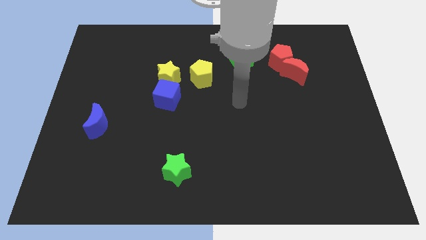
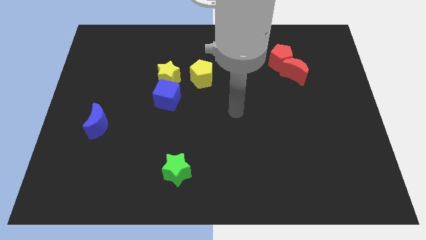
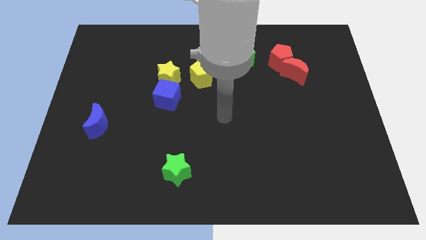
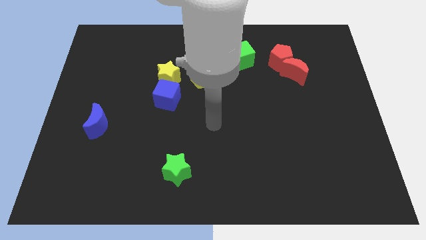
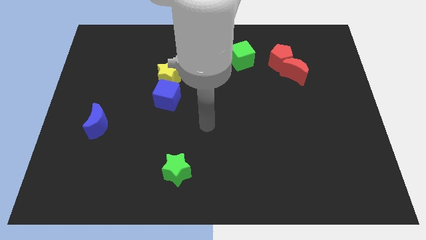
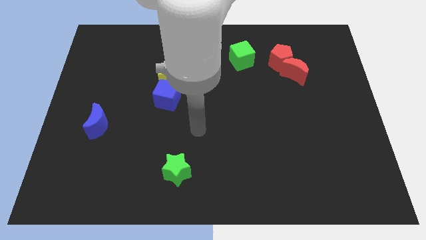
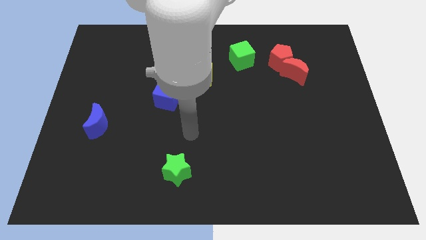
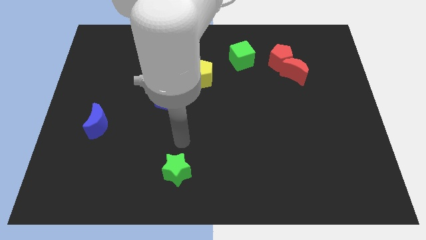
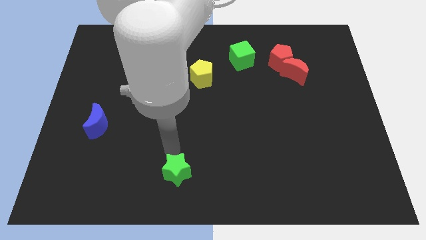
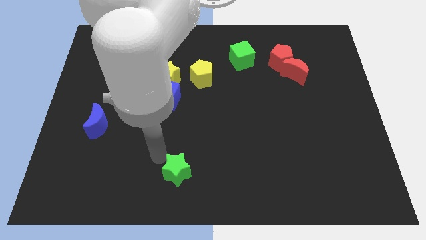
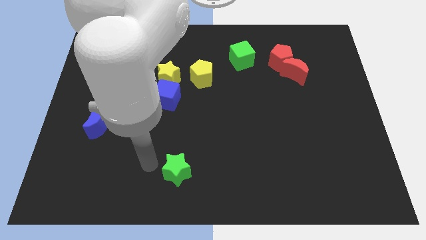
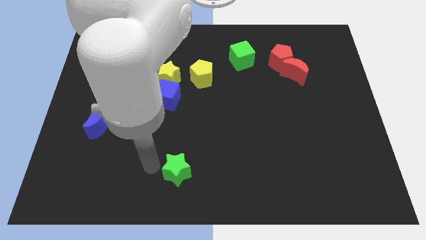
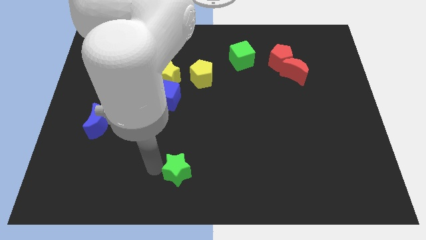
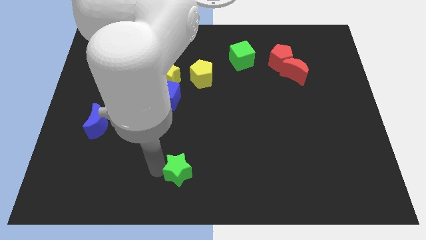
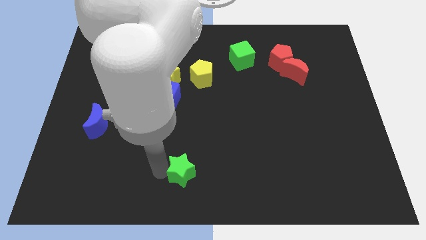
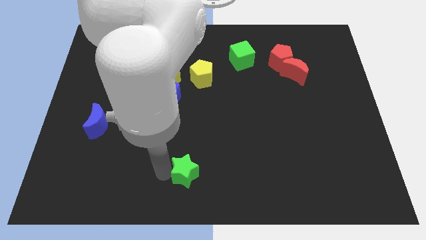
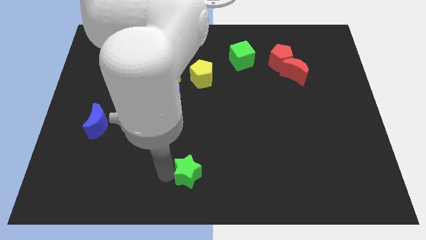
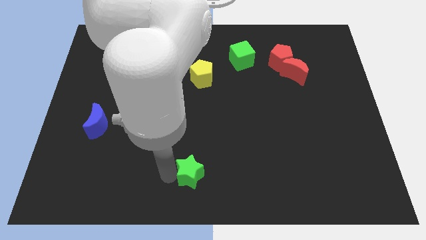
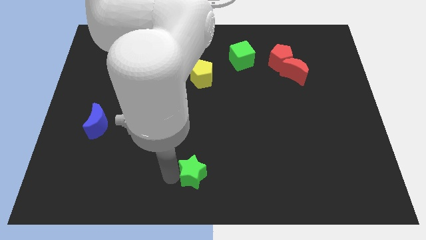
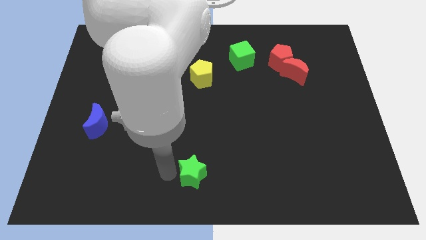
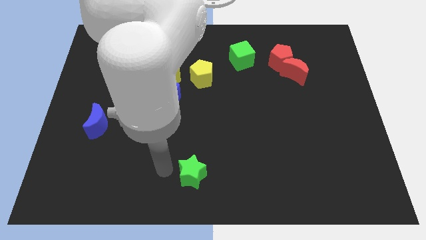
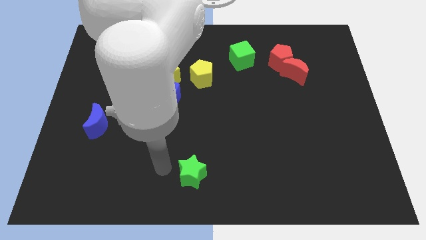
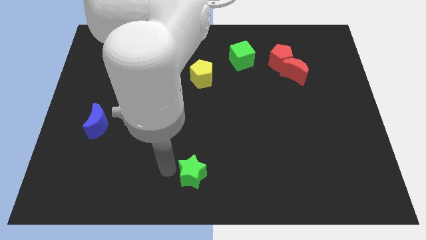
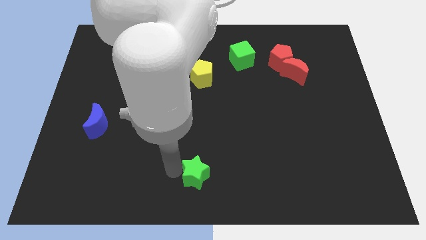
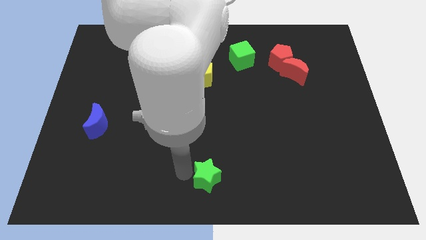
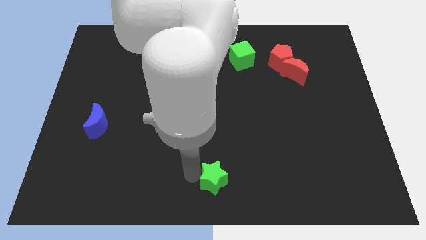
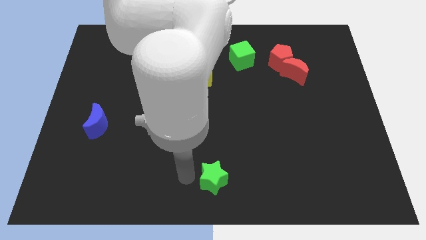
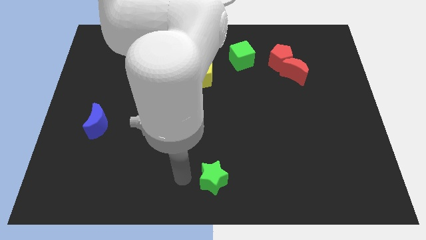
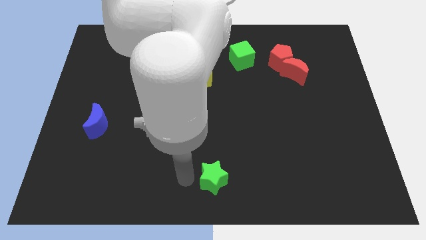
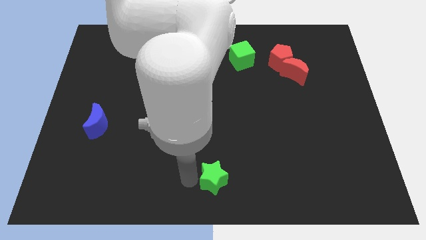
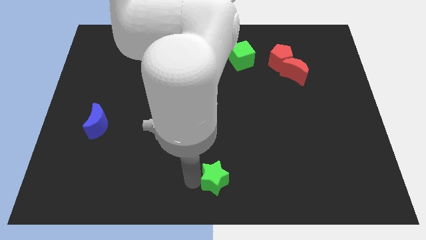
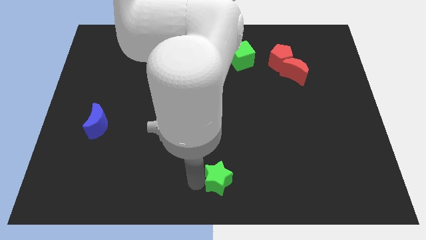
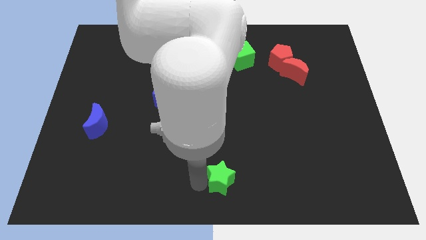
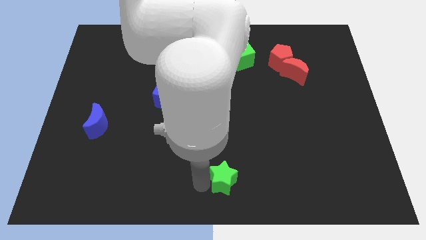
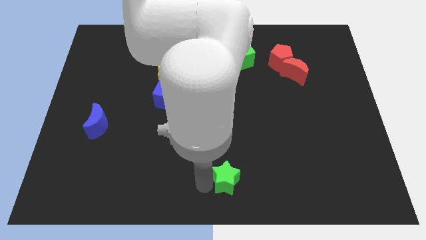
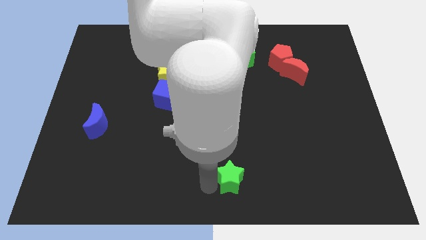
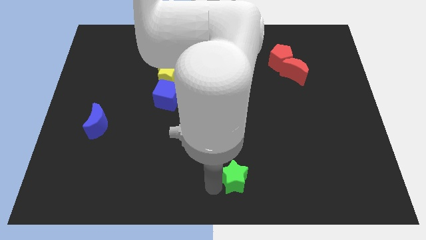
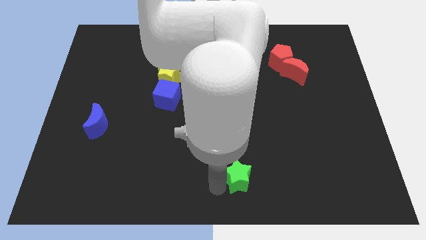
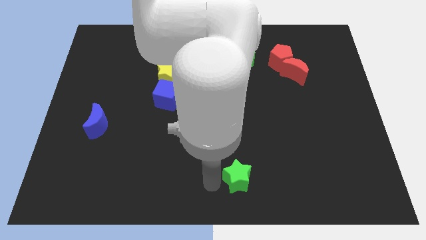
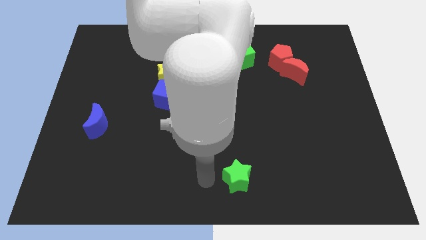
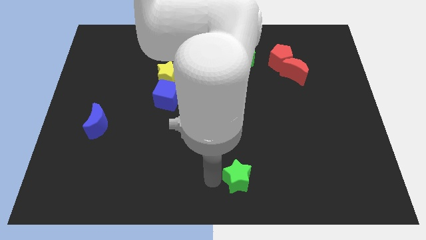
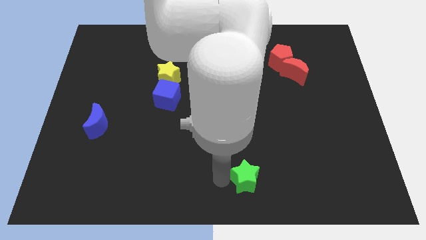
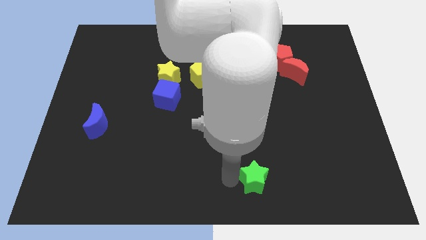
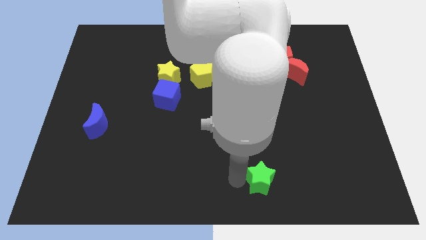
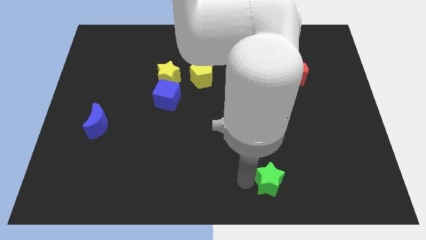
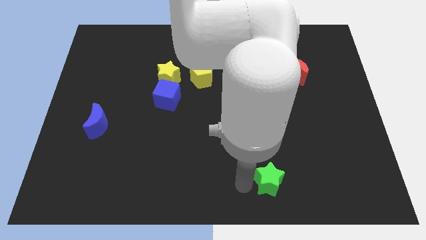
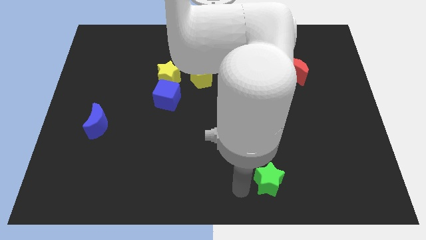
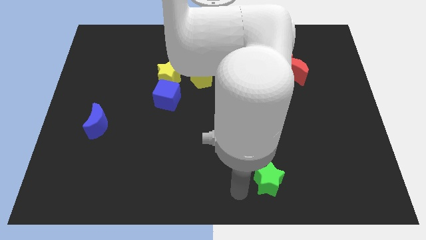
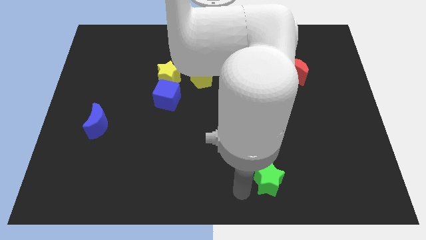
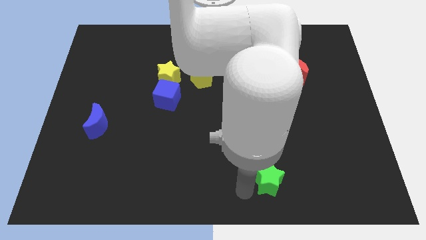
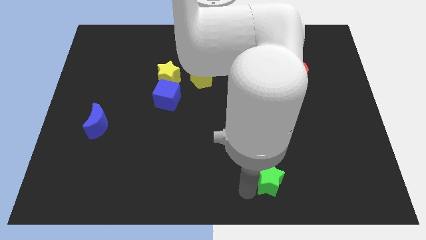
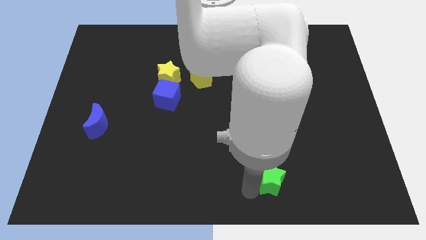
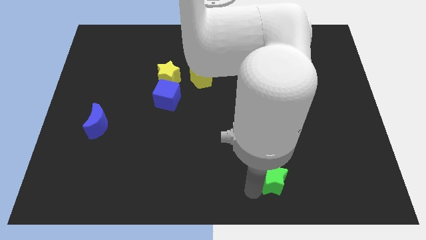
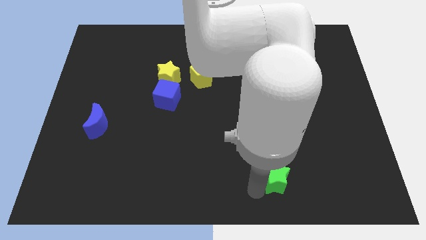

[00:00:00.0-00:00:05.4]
push the green star to the right

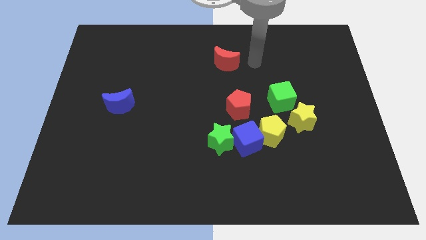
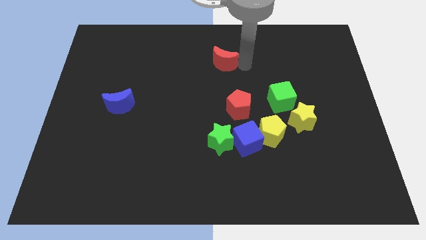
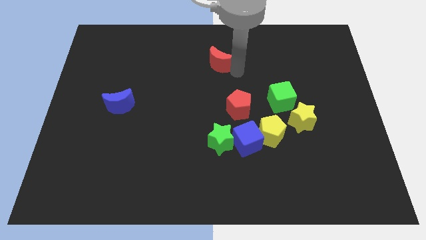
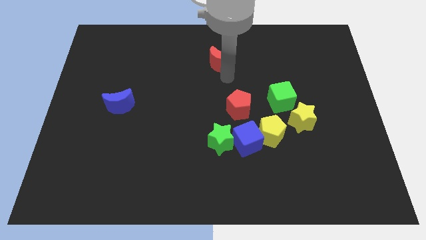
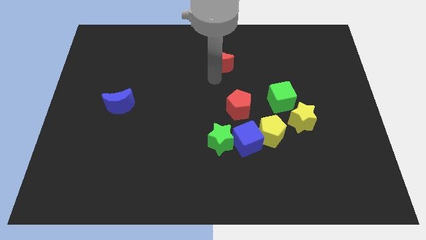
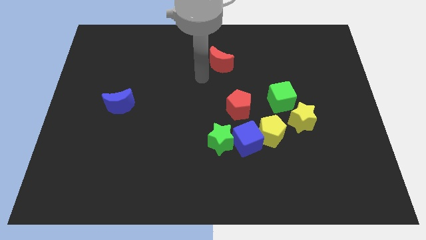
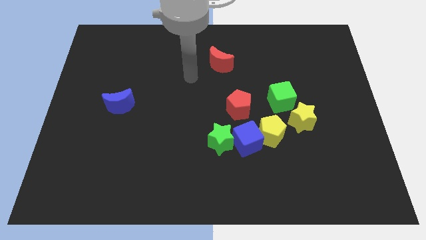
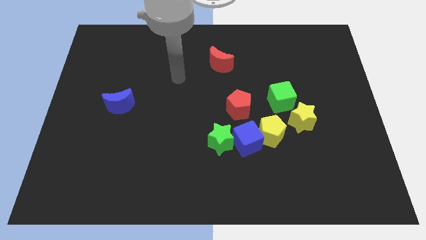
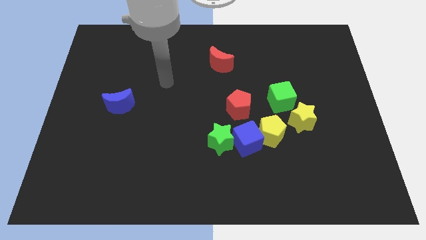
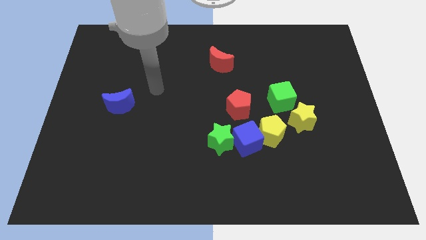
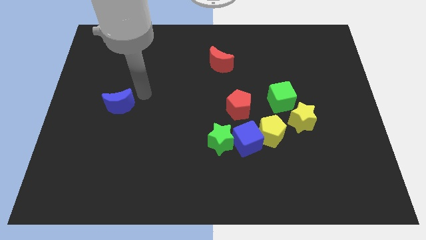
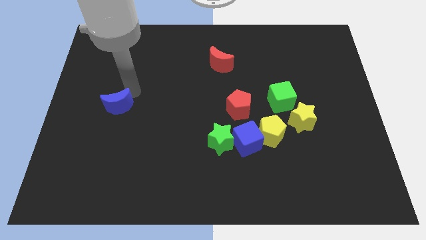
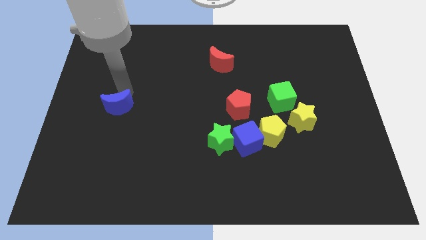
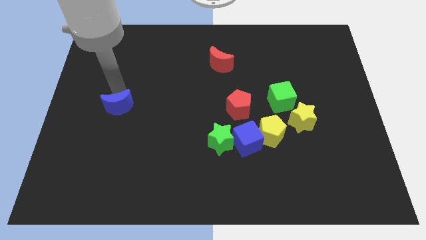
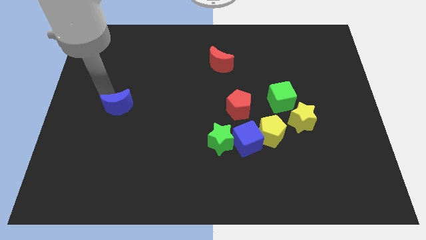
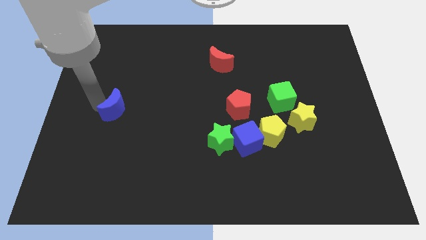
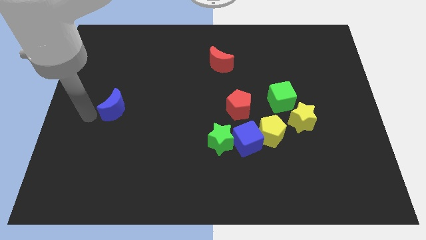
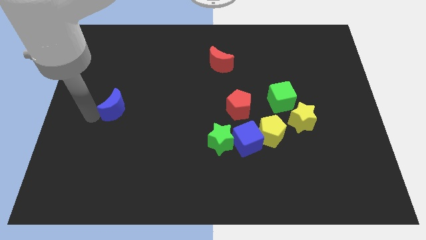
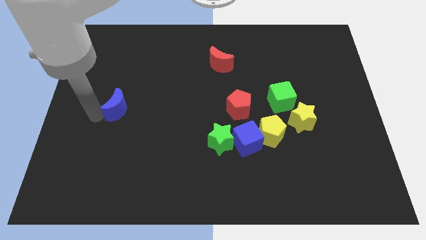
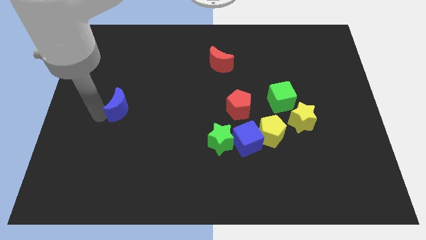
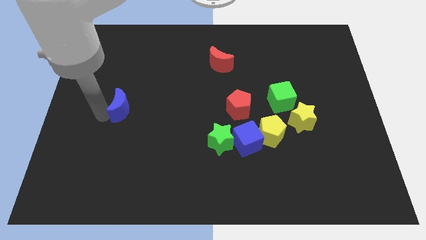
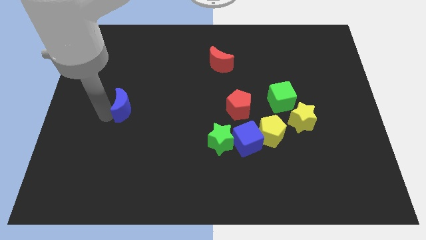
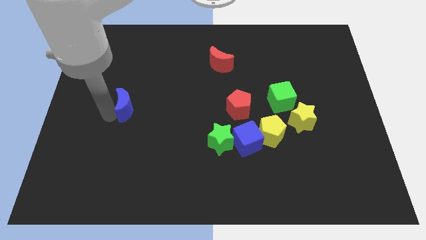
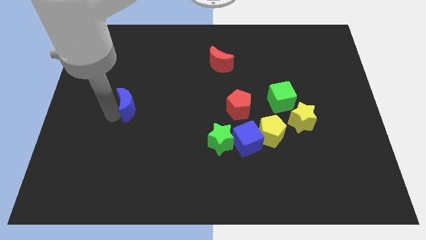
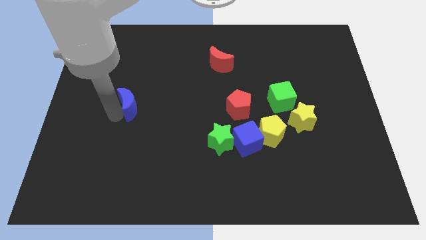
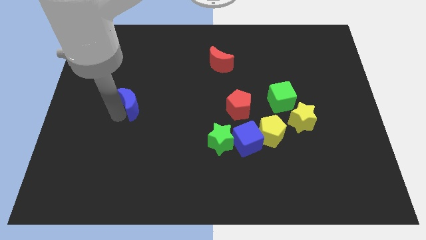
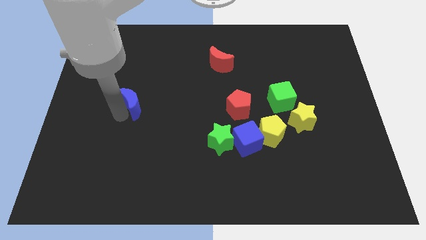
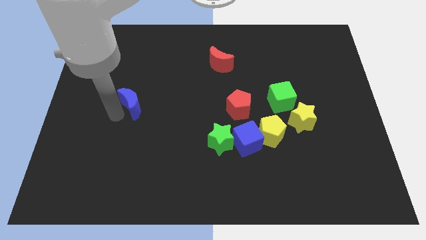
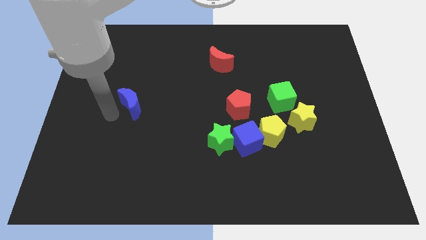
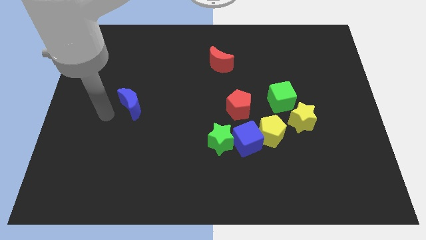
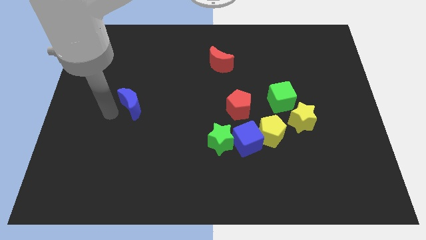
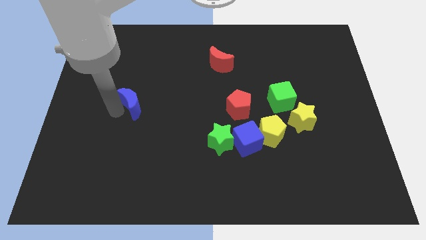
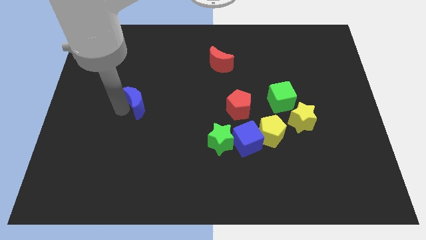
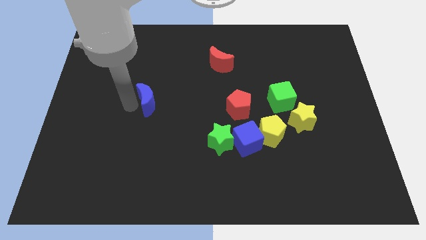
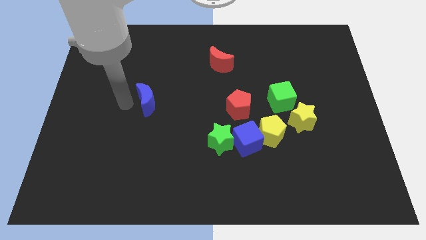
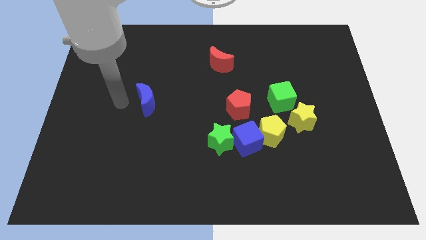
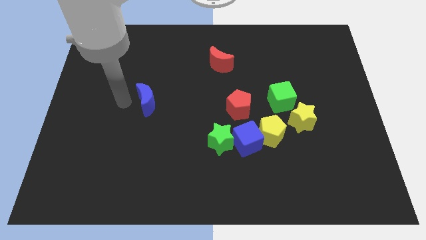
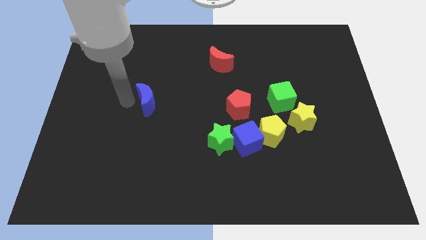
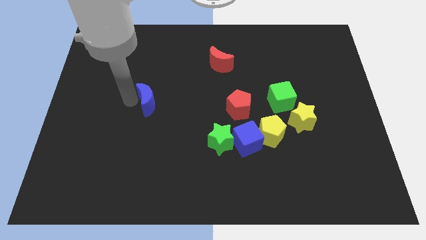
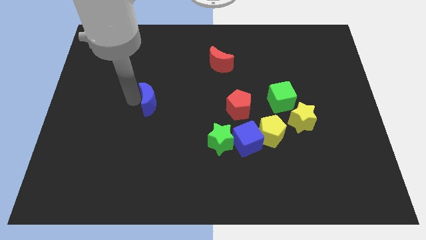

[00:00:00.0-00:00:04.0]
push the blue moon right somewhat
